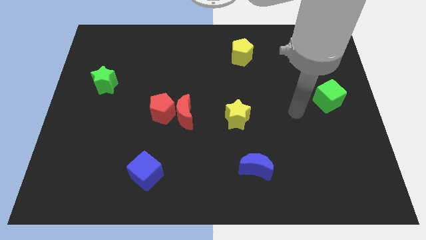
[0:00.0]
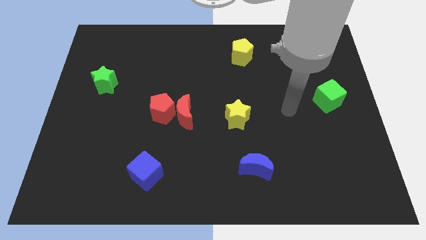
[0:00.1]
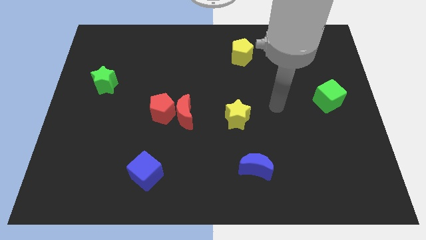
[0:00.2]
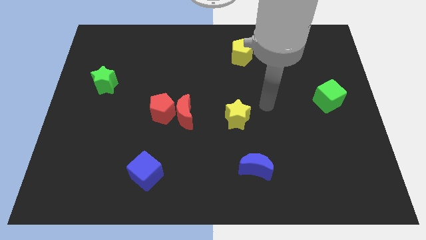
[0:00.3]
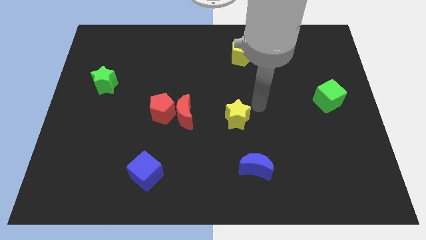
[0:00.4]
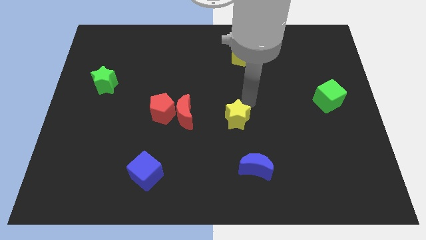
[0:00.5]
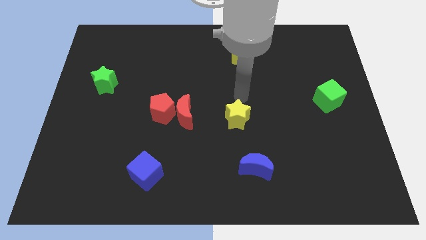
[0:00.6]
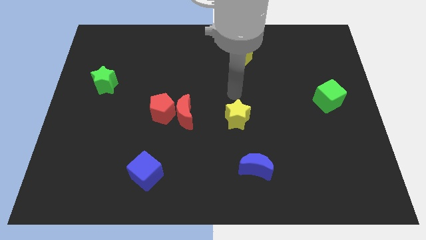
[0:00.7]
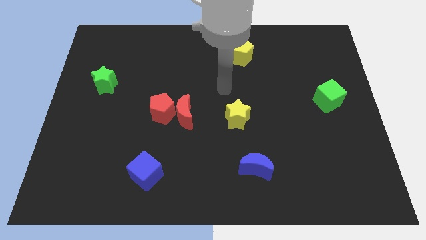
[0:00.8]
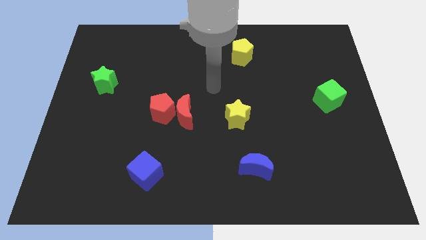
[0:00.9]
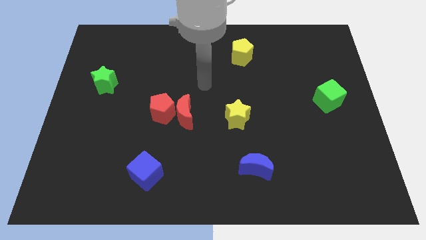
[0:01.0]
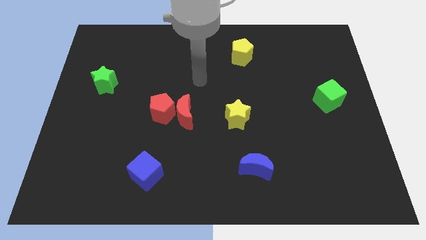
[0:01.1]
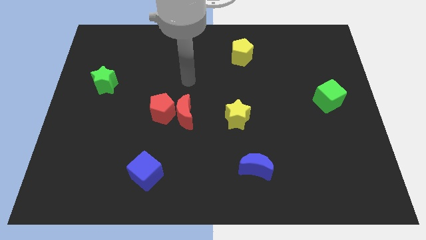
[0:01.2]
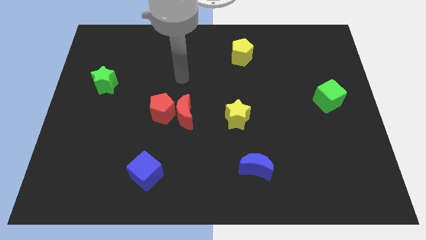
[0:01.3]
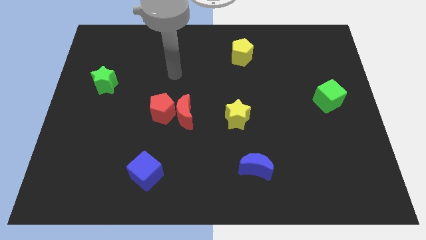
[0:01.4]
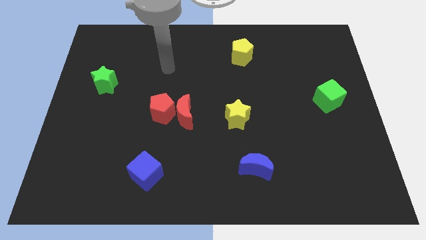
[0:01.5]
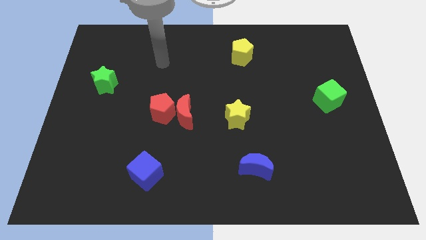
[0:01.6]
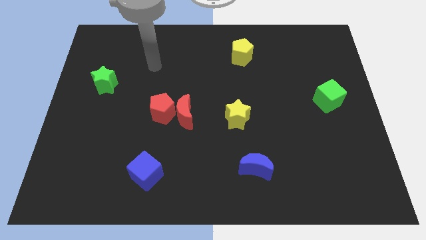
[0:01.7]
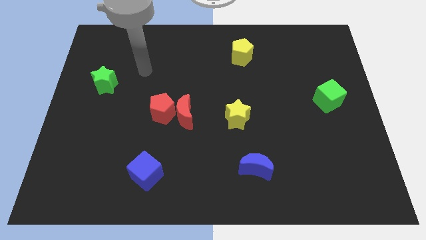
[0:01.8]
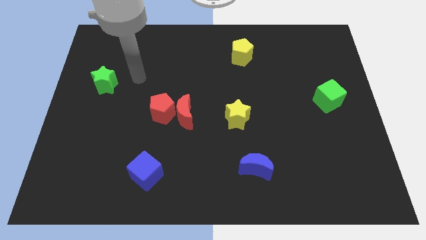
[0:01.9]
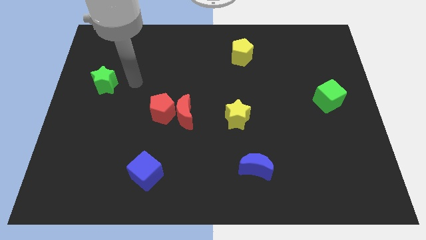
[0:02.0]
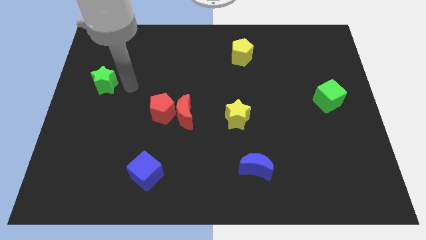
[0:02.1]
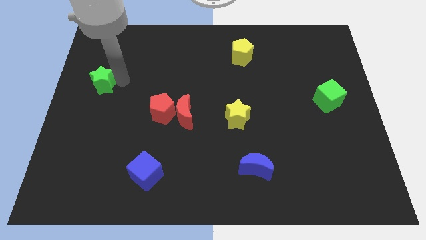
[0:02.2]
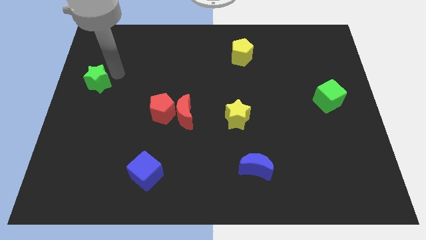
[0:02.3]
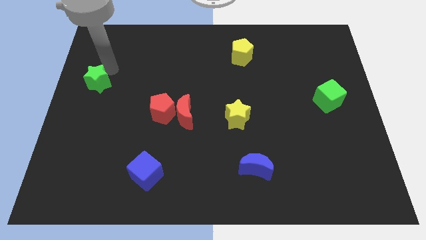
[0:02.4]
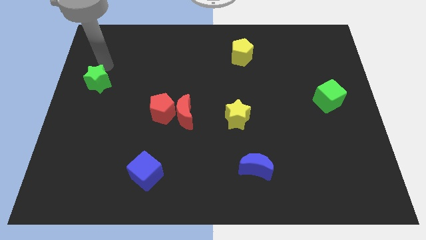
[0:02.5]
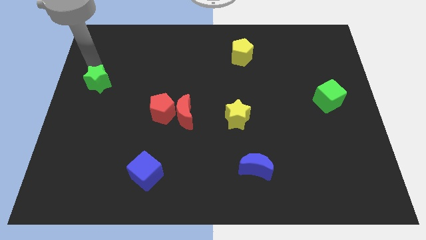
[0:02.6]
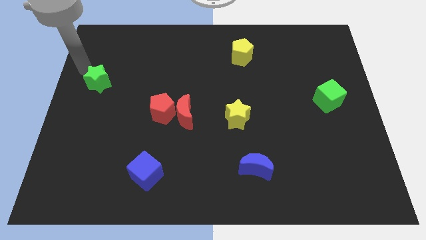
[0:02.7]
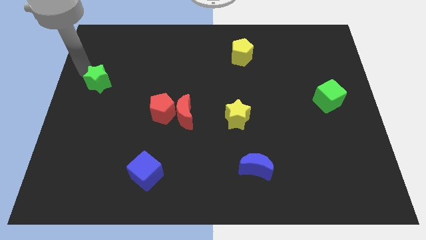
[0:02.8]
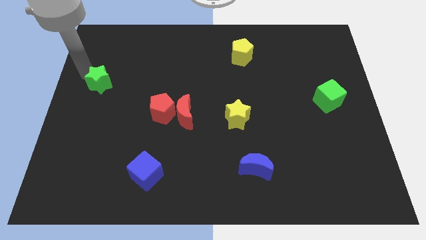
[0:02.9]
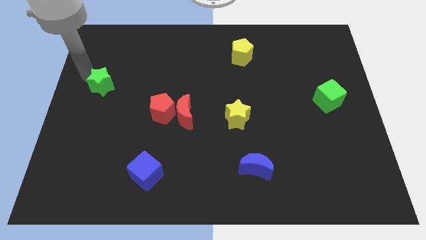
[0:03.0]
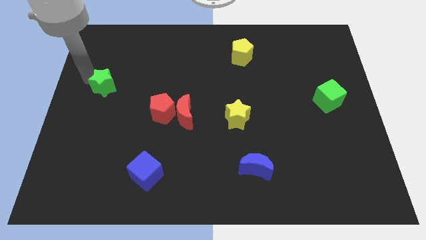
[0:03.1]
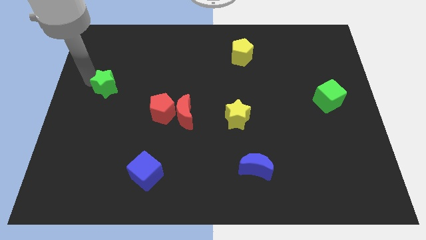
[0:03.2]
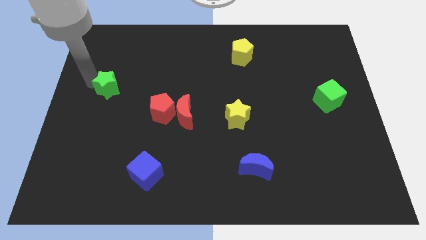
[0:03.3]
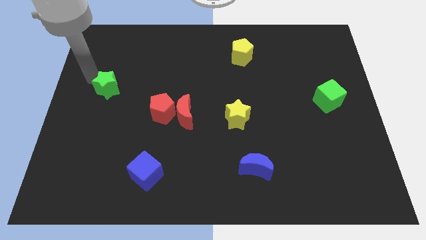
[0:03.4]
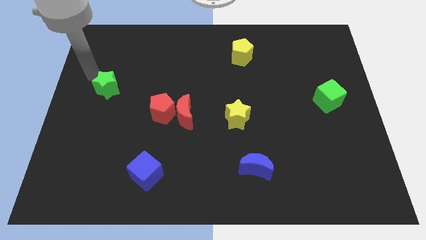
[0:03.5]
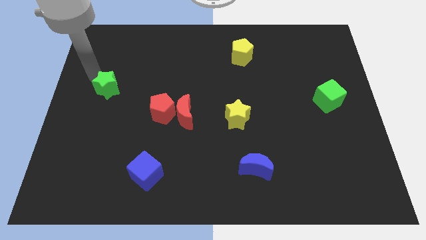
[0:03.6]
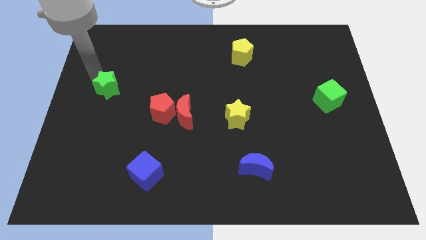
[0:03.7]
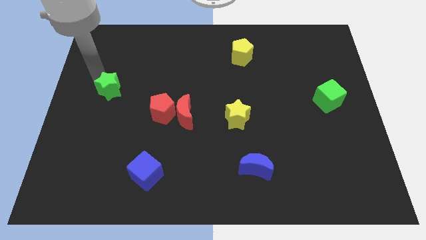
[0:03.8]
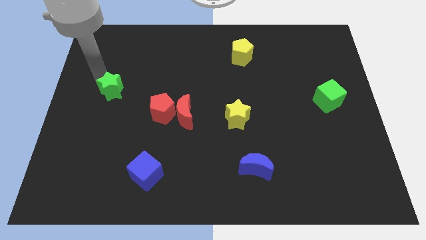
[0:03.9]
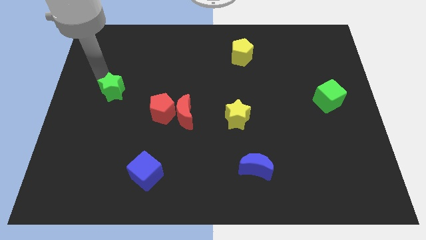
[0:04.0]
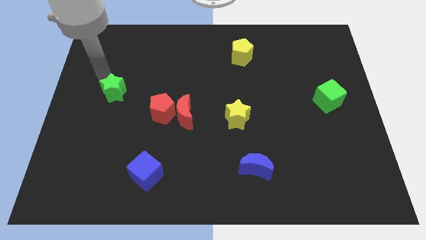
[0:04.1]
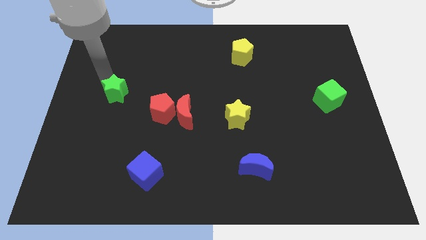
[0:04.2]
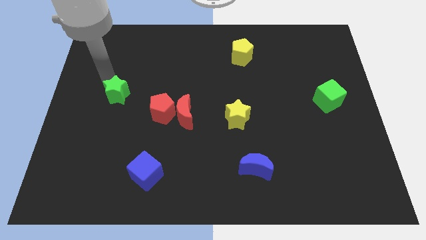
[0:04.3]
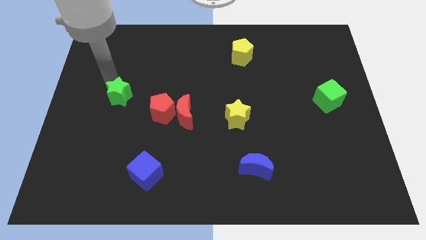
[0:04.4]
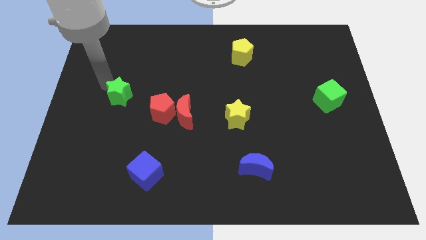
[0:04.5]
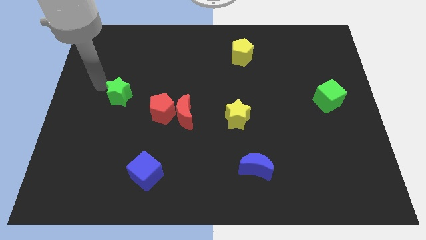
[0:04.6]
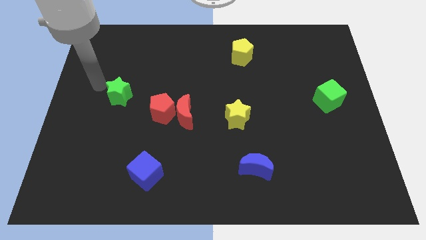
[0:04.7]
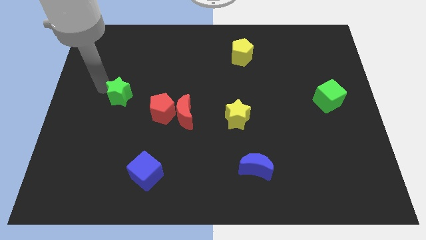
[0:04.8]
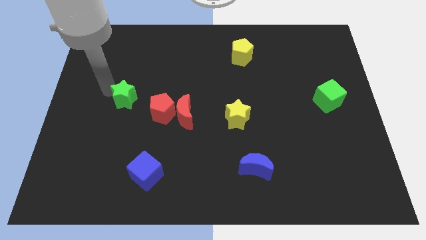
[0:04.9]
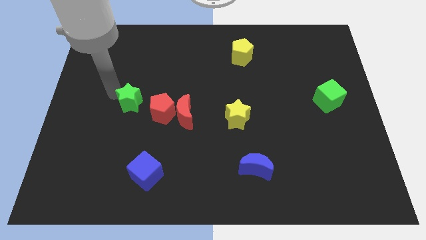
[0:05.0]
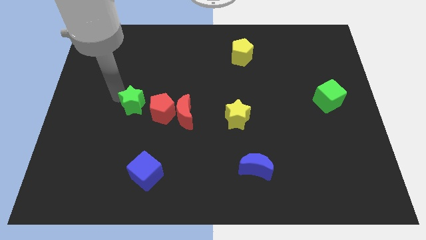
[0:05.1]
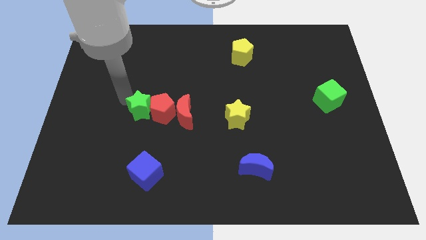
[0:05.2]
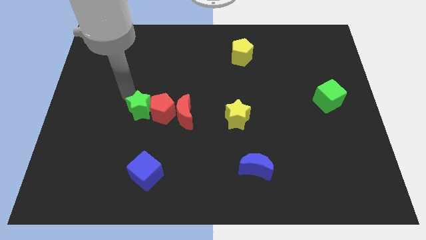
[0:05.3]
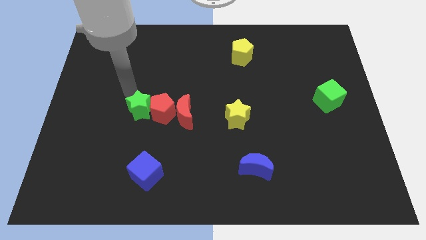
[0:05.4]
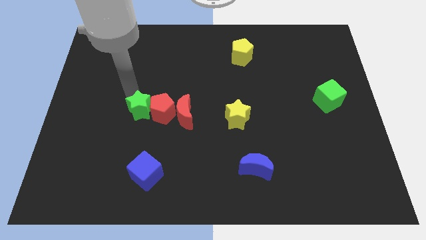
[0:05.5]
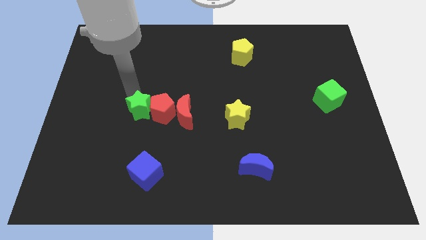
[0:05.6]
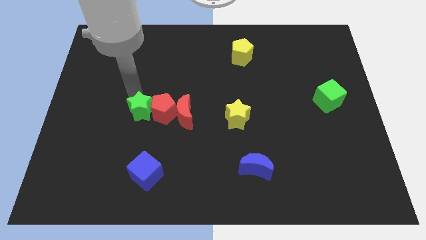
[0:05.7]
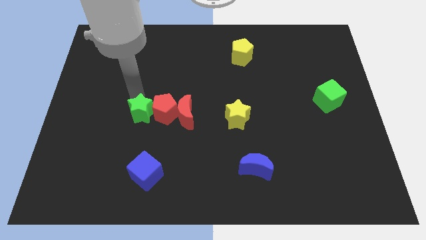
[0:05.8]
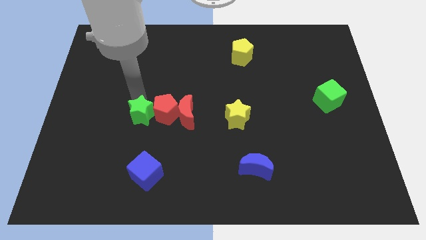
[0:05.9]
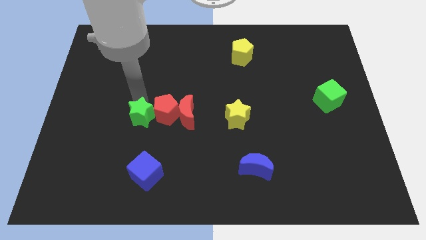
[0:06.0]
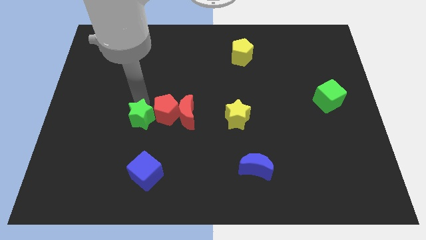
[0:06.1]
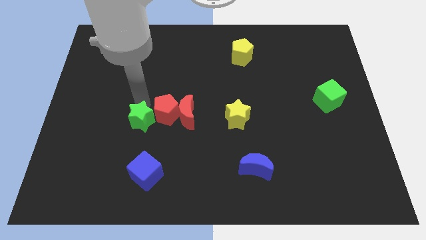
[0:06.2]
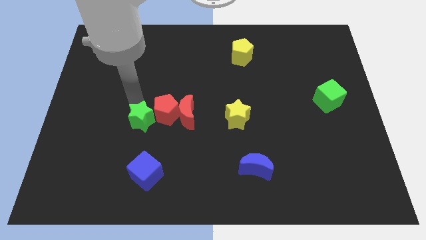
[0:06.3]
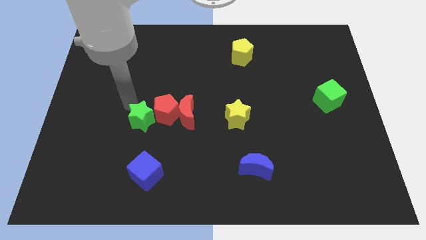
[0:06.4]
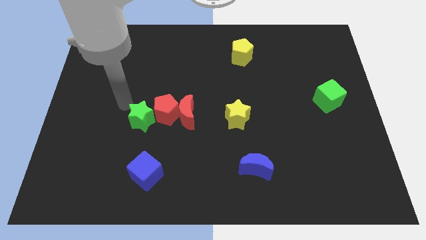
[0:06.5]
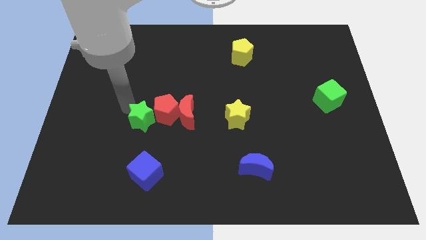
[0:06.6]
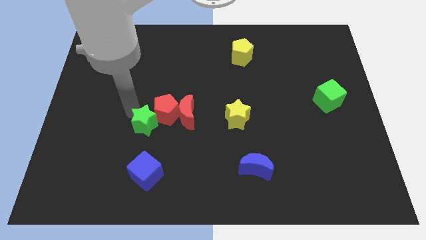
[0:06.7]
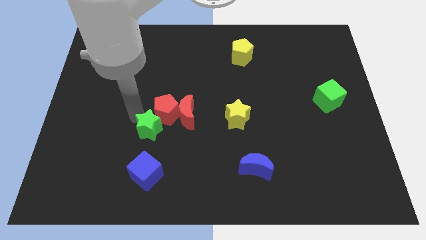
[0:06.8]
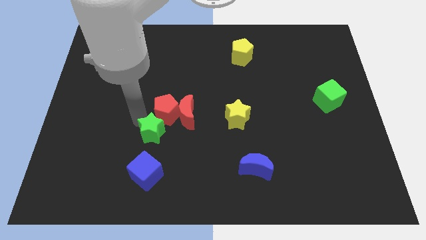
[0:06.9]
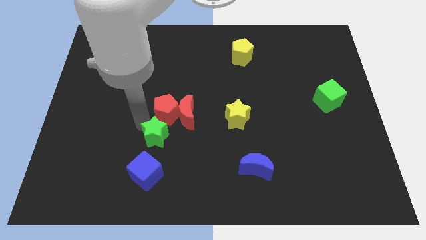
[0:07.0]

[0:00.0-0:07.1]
move the green star downwards and then right

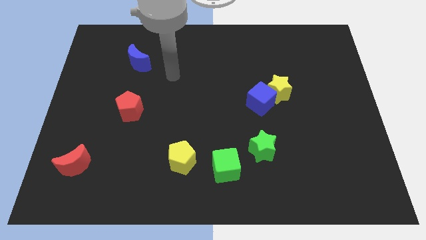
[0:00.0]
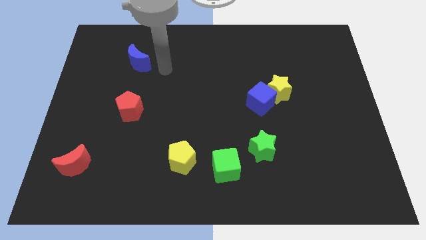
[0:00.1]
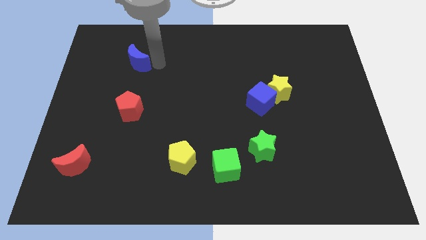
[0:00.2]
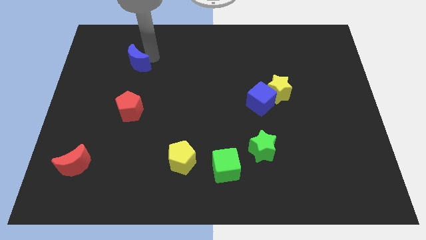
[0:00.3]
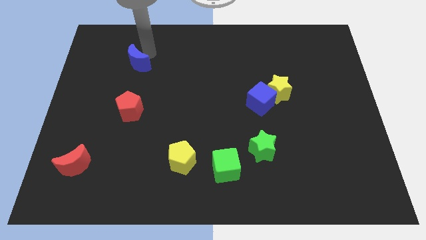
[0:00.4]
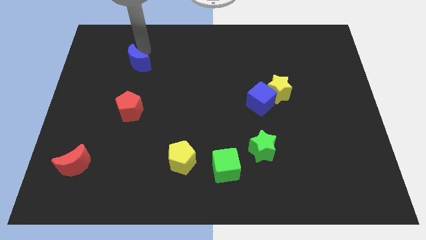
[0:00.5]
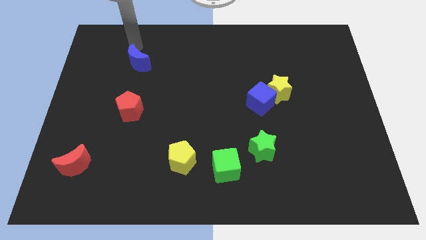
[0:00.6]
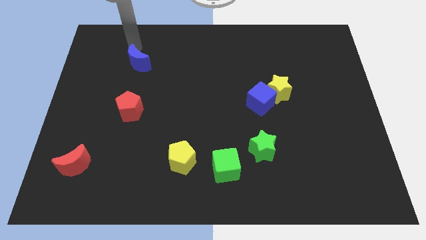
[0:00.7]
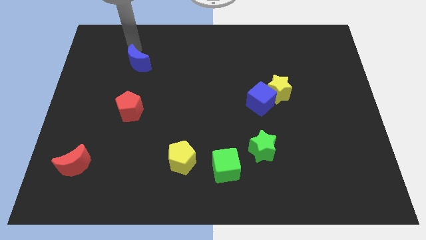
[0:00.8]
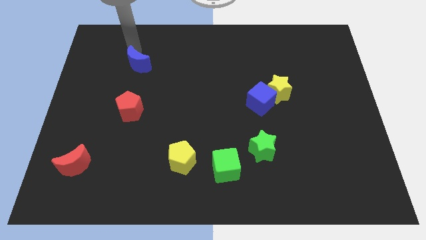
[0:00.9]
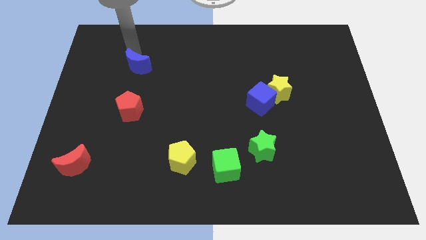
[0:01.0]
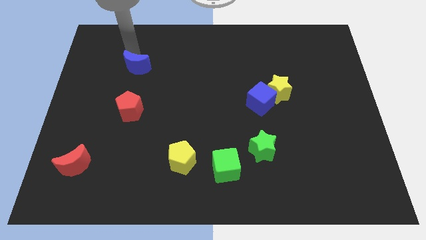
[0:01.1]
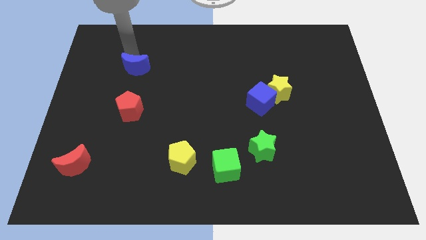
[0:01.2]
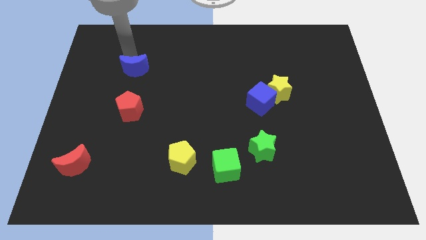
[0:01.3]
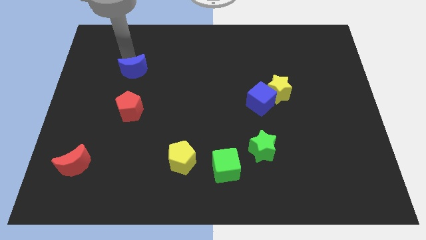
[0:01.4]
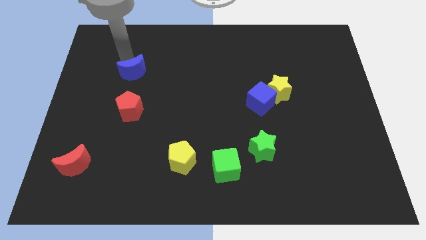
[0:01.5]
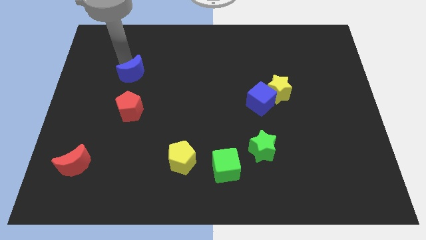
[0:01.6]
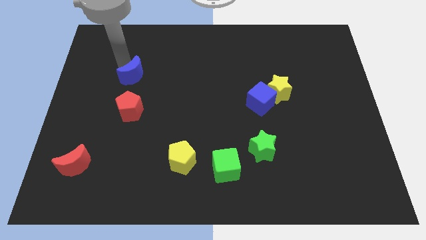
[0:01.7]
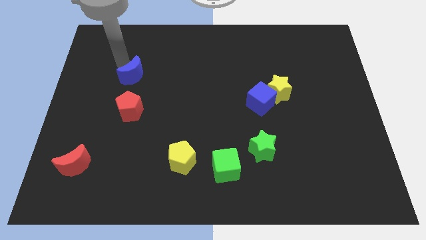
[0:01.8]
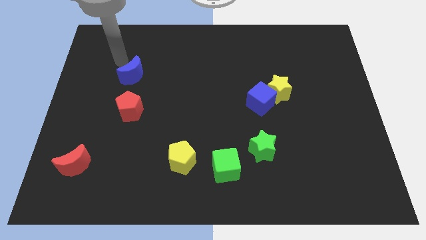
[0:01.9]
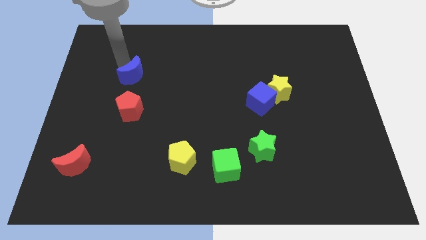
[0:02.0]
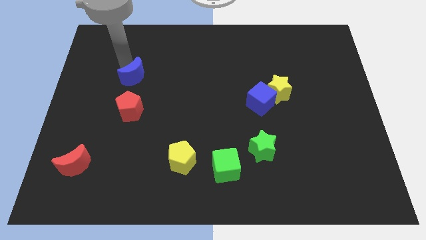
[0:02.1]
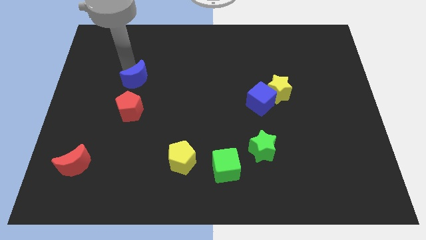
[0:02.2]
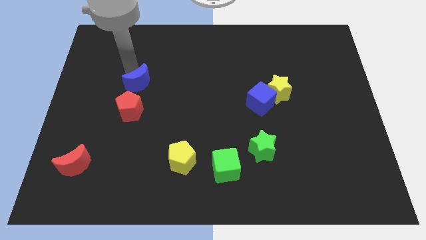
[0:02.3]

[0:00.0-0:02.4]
slightly push the blue moon down
